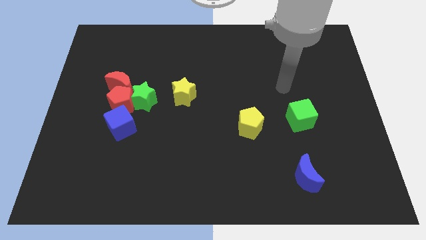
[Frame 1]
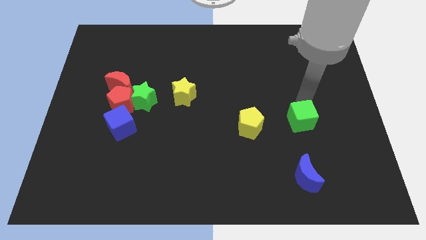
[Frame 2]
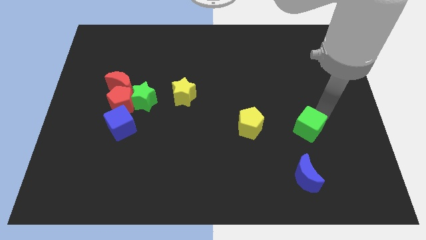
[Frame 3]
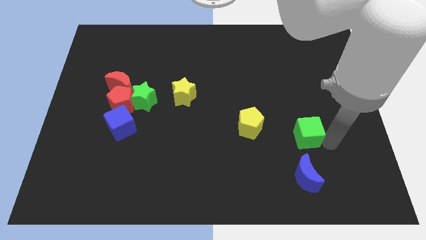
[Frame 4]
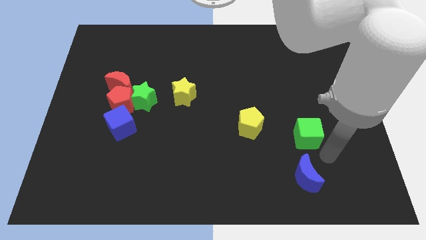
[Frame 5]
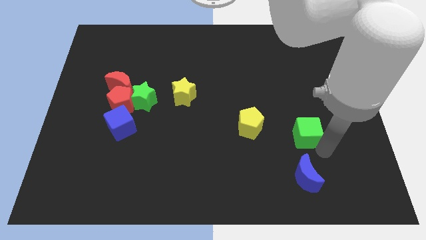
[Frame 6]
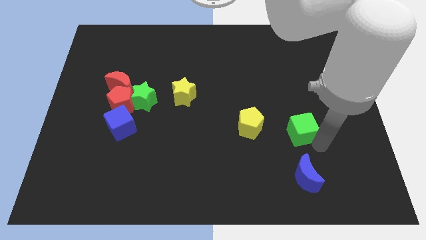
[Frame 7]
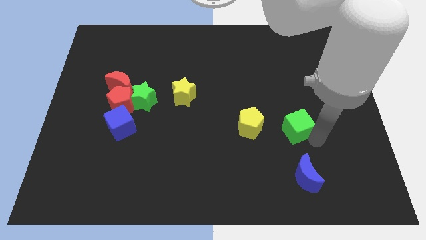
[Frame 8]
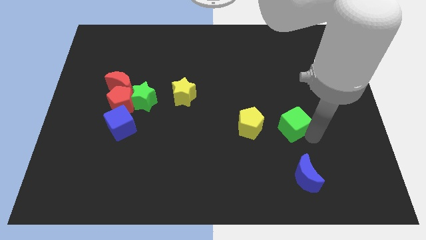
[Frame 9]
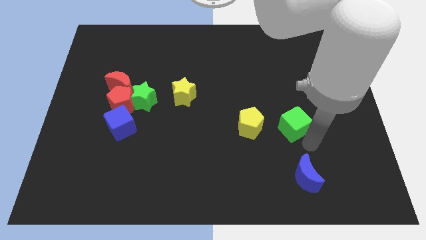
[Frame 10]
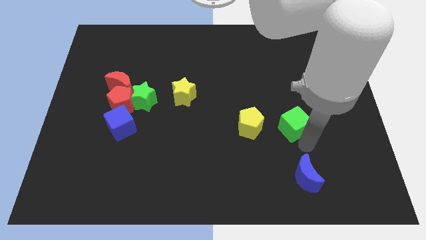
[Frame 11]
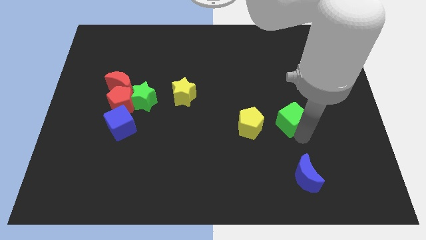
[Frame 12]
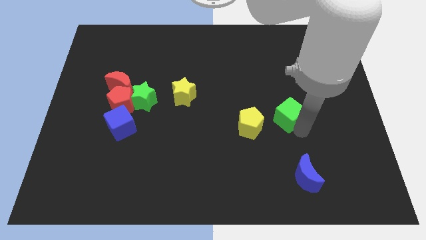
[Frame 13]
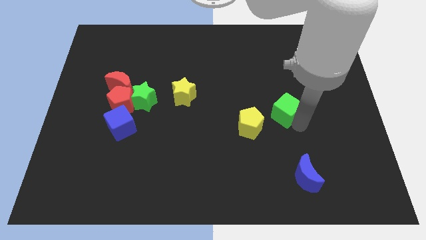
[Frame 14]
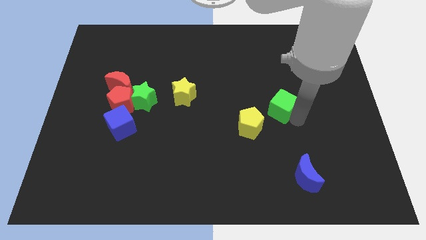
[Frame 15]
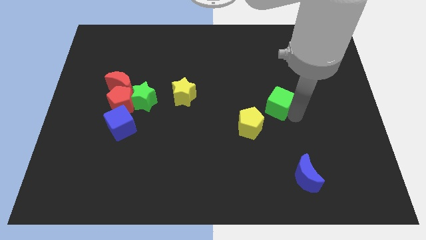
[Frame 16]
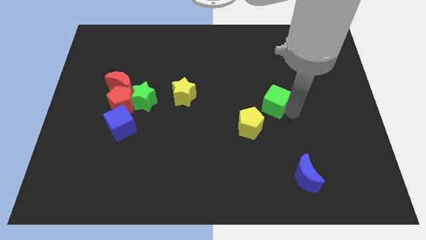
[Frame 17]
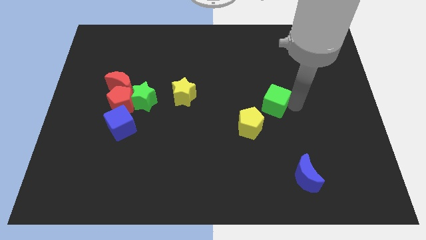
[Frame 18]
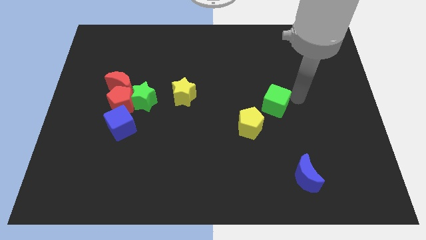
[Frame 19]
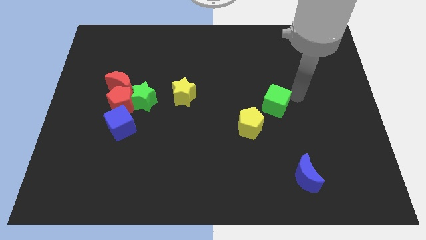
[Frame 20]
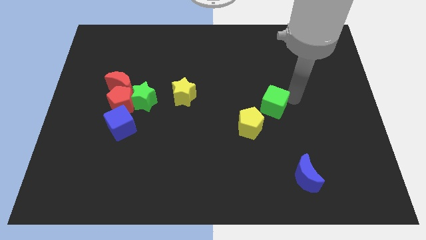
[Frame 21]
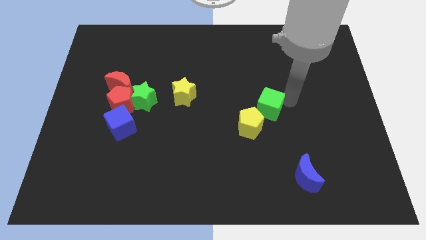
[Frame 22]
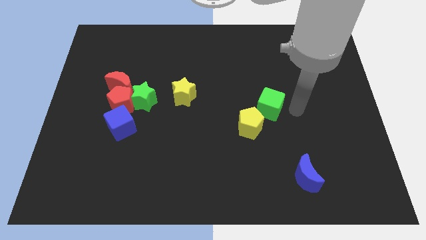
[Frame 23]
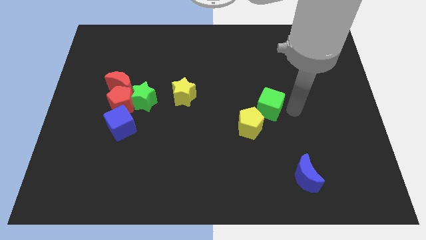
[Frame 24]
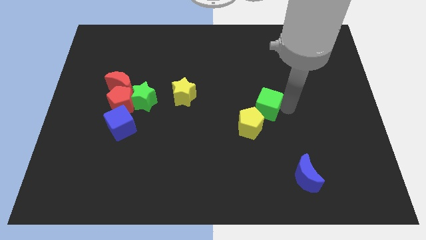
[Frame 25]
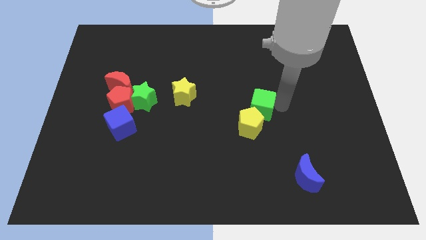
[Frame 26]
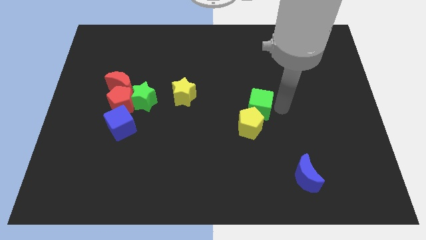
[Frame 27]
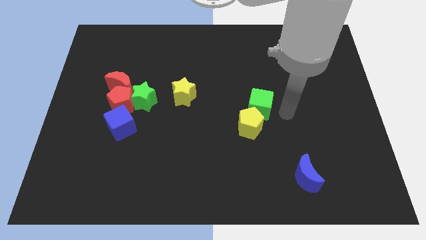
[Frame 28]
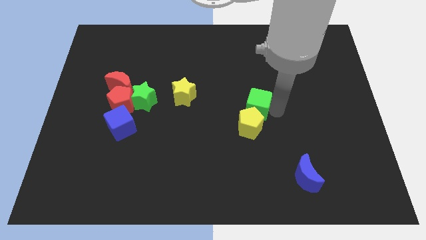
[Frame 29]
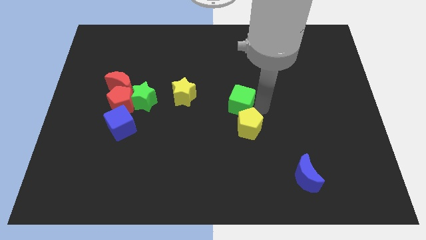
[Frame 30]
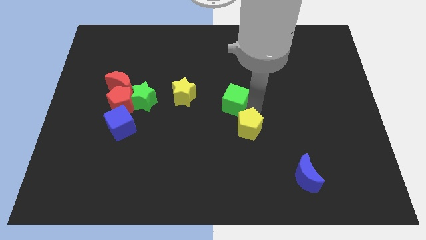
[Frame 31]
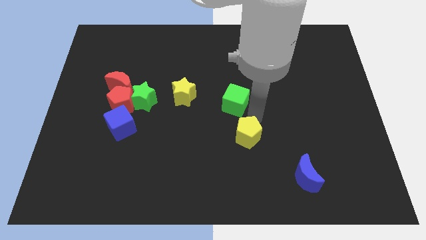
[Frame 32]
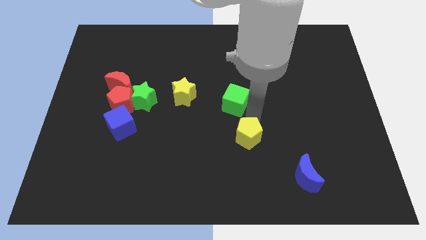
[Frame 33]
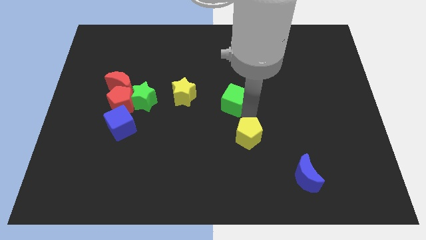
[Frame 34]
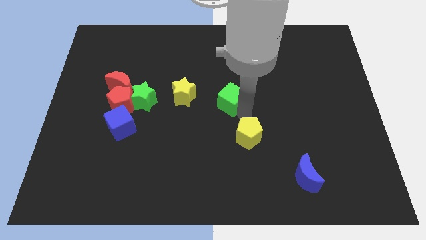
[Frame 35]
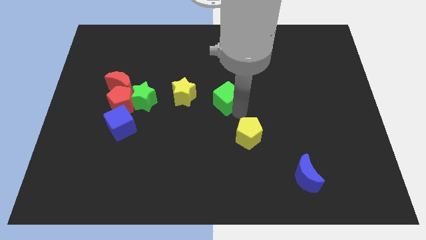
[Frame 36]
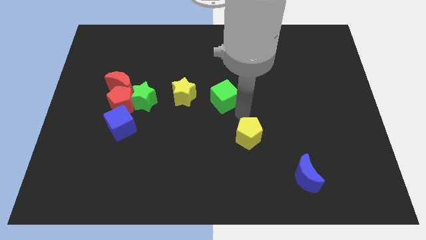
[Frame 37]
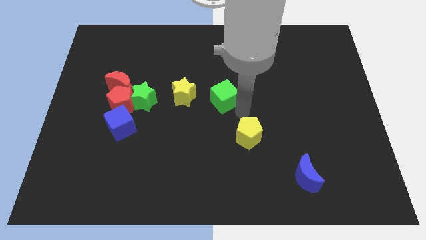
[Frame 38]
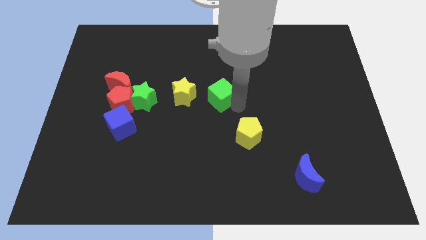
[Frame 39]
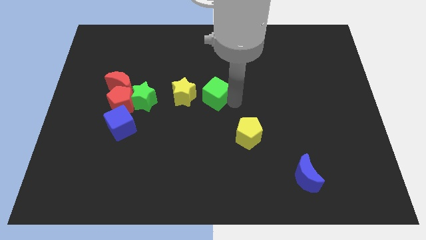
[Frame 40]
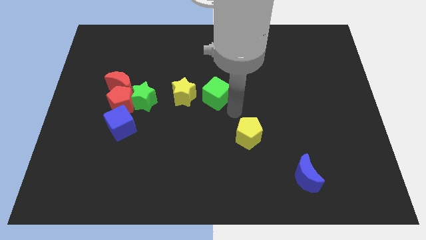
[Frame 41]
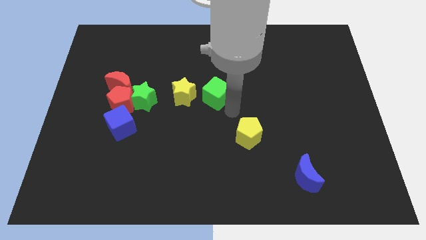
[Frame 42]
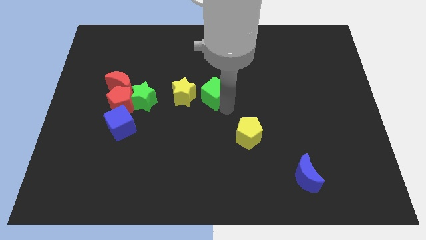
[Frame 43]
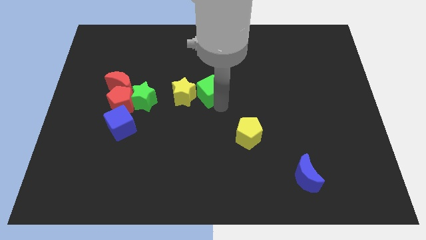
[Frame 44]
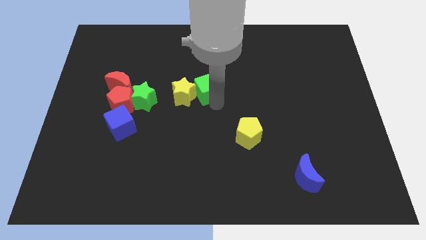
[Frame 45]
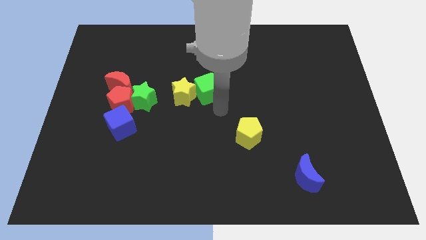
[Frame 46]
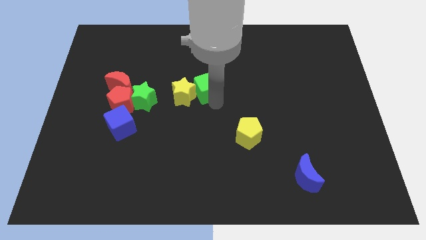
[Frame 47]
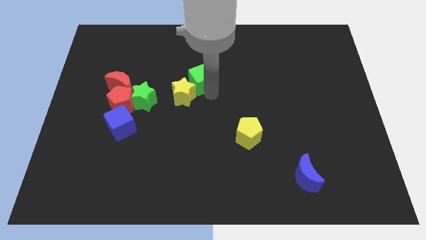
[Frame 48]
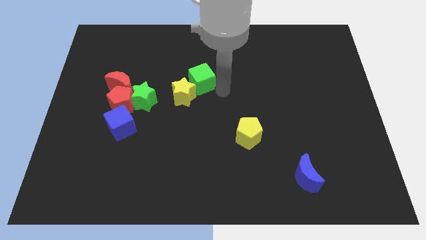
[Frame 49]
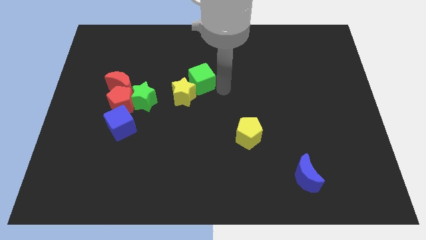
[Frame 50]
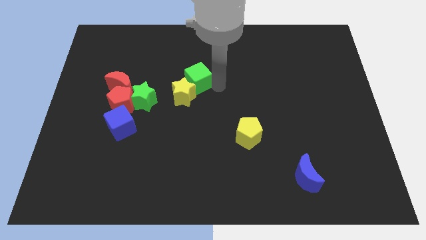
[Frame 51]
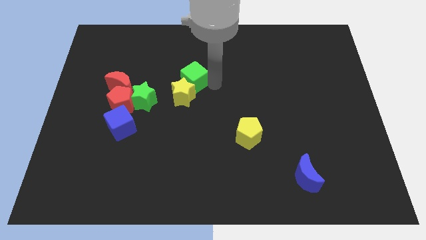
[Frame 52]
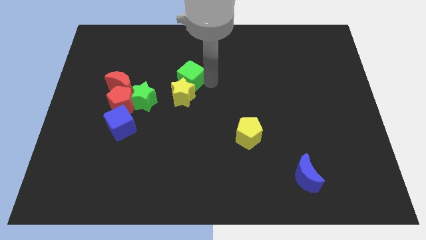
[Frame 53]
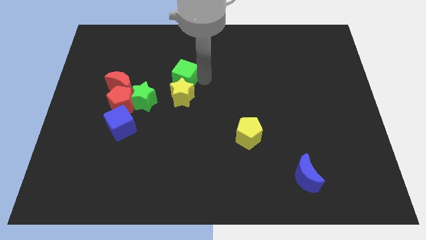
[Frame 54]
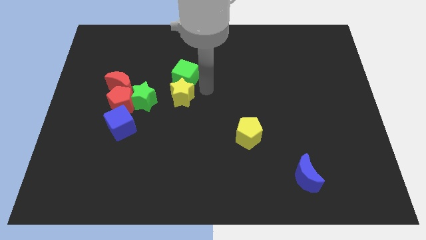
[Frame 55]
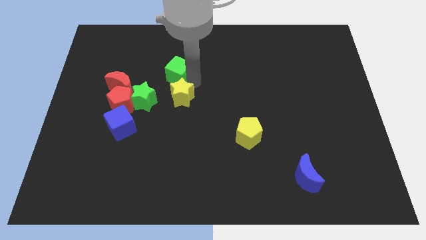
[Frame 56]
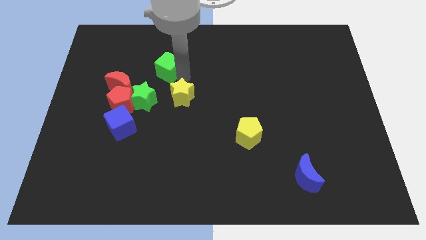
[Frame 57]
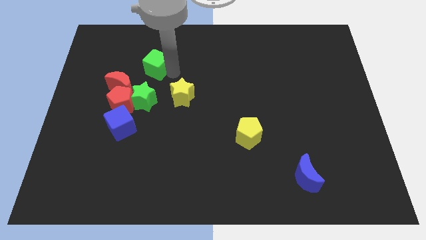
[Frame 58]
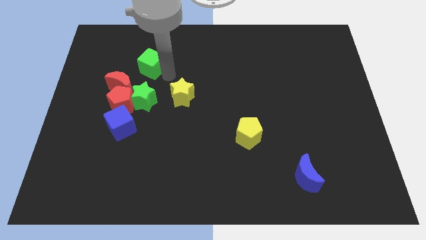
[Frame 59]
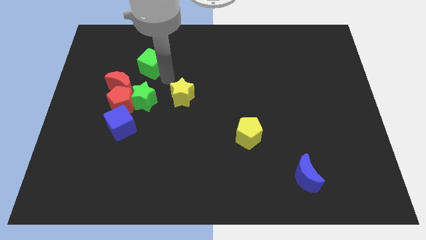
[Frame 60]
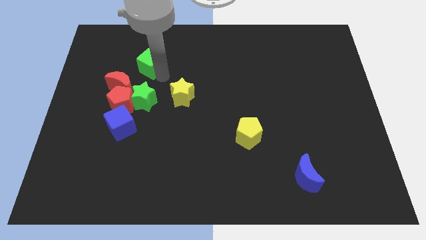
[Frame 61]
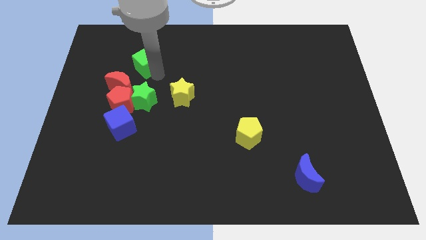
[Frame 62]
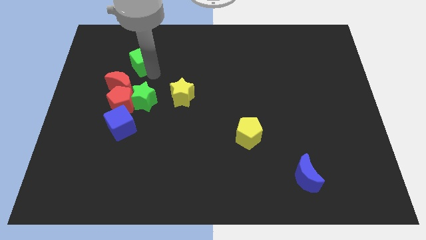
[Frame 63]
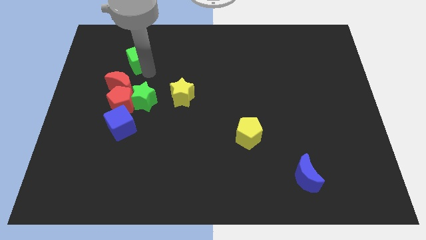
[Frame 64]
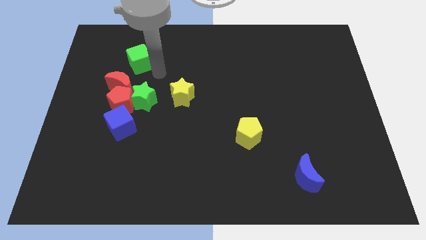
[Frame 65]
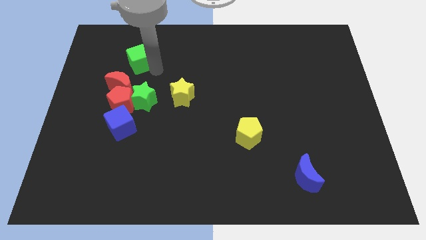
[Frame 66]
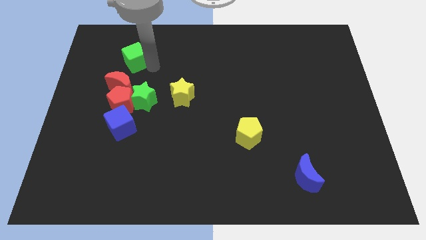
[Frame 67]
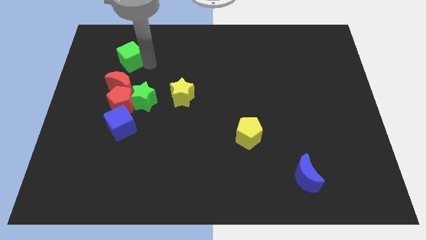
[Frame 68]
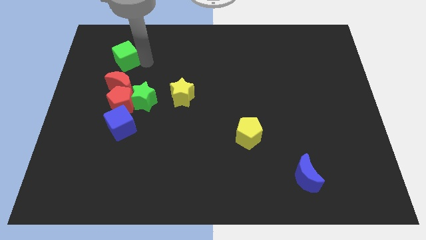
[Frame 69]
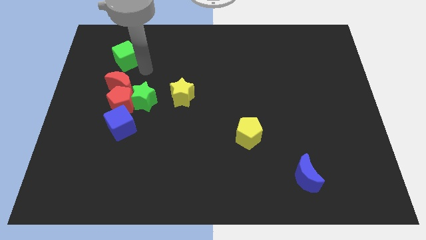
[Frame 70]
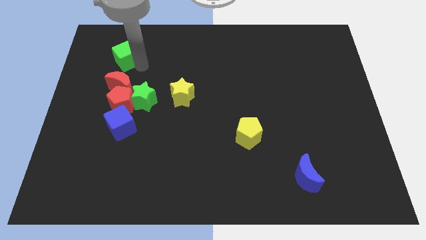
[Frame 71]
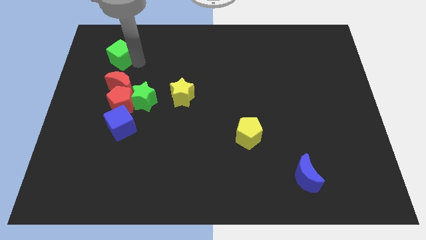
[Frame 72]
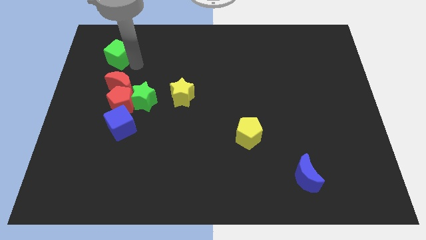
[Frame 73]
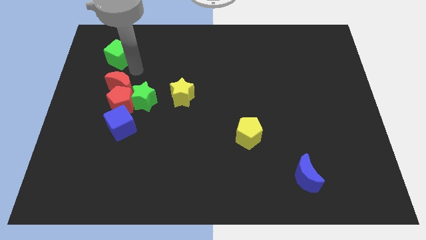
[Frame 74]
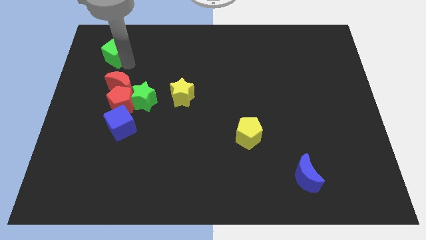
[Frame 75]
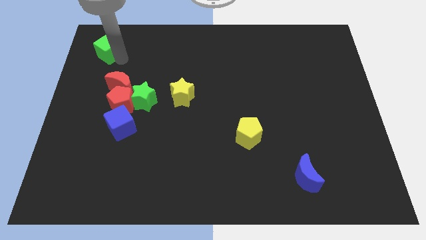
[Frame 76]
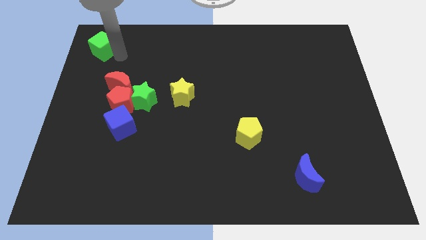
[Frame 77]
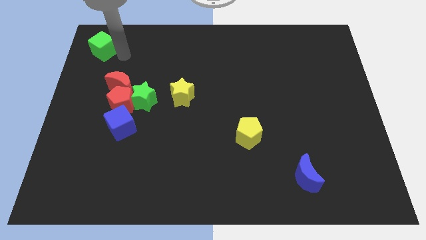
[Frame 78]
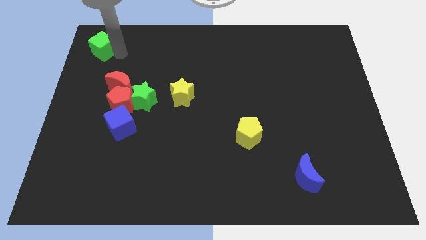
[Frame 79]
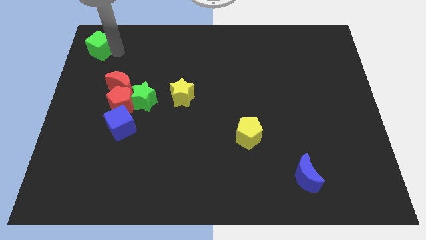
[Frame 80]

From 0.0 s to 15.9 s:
put the green cube to the top left corner
